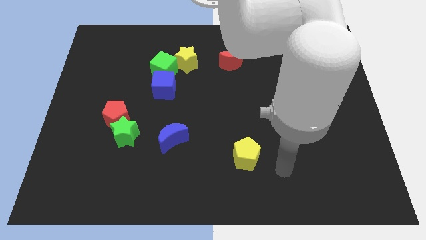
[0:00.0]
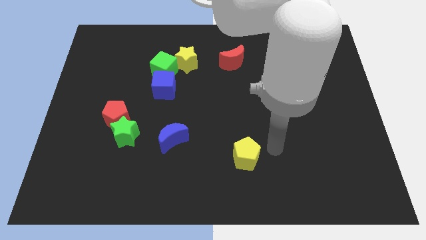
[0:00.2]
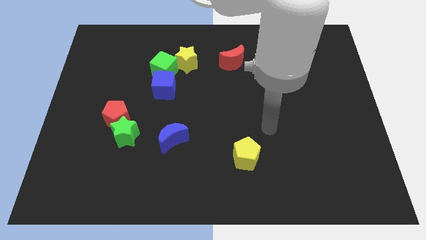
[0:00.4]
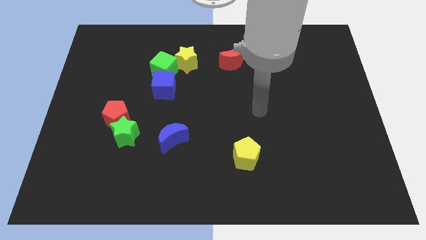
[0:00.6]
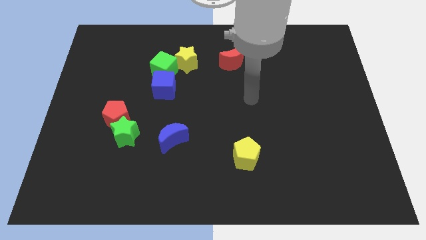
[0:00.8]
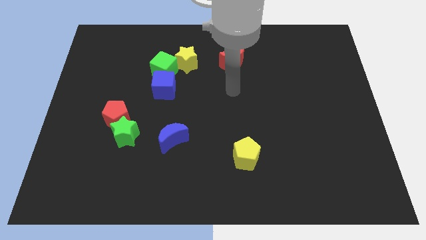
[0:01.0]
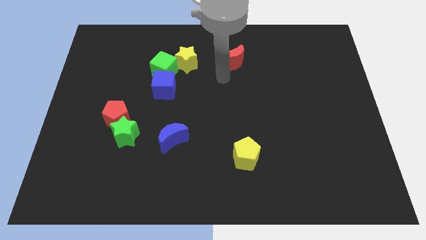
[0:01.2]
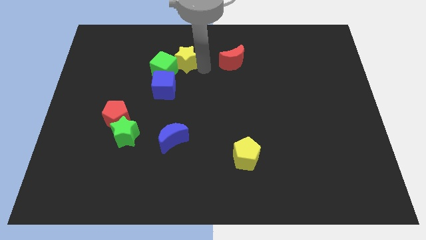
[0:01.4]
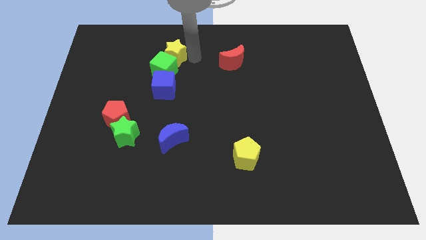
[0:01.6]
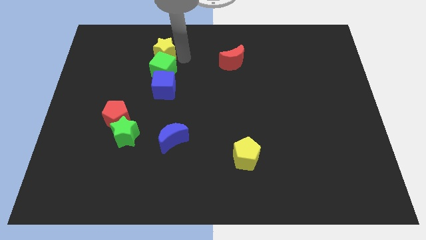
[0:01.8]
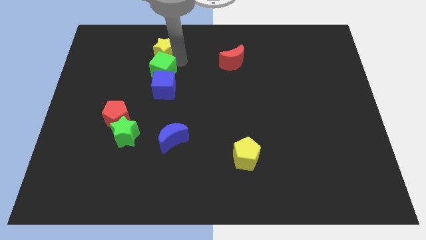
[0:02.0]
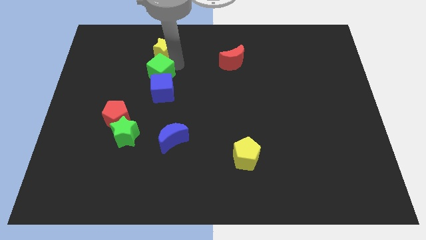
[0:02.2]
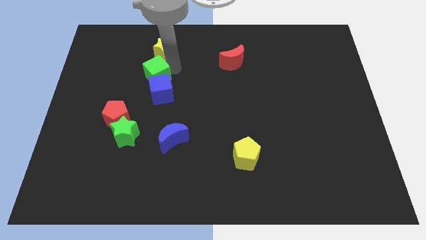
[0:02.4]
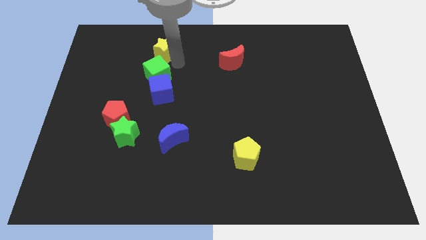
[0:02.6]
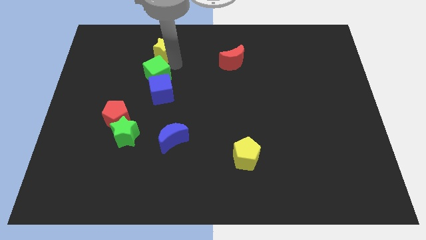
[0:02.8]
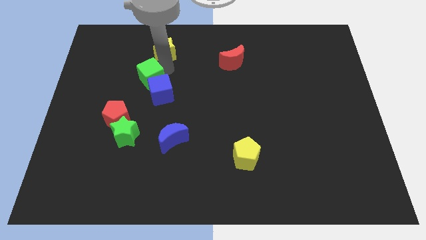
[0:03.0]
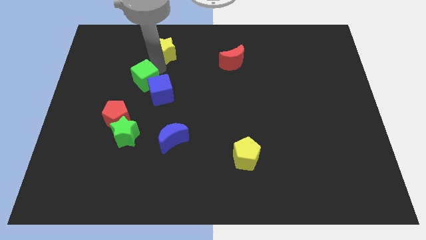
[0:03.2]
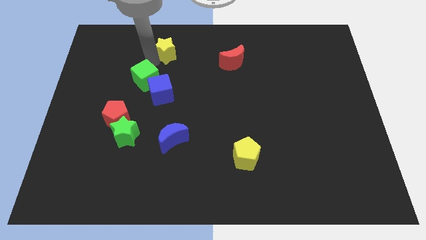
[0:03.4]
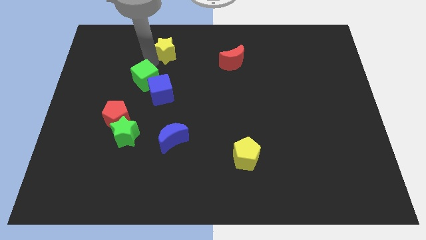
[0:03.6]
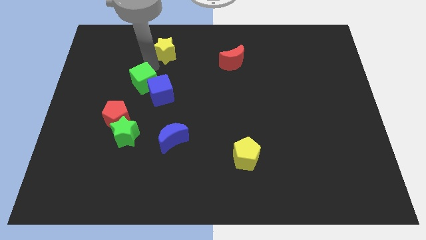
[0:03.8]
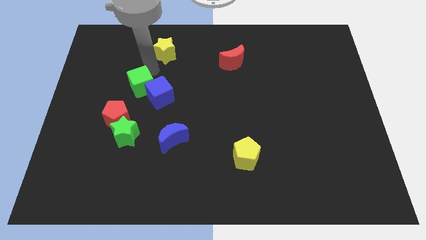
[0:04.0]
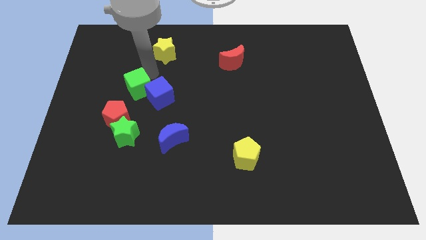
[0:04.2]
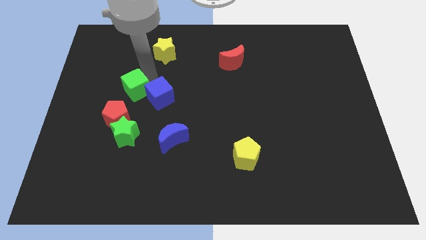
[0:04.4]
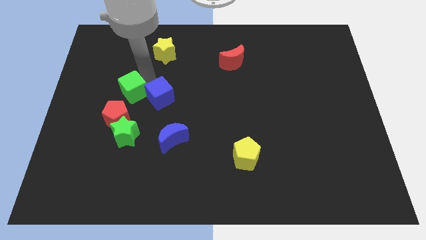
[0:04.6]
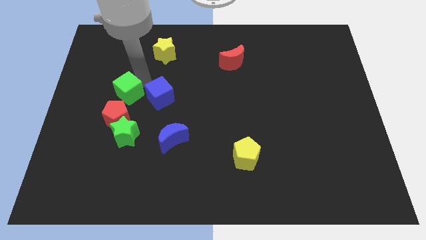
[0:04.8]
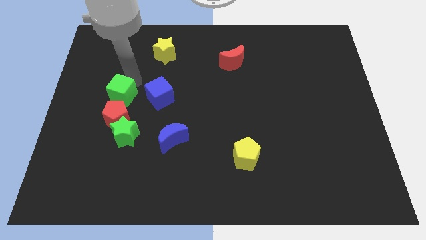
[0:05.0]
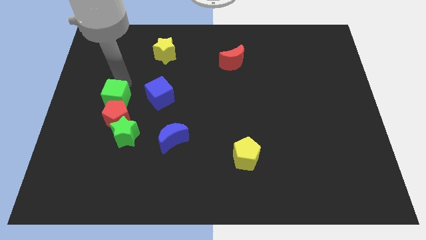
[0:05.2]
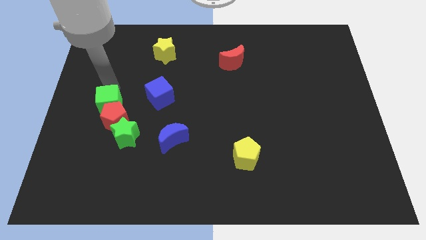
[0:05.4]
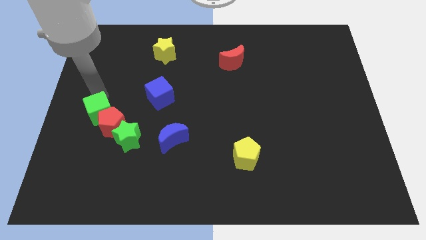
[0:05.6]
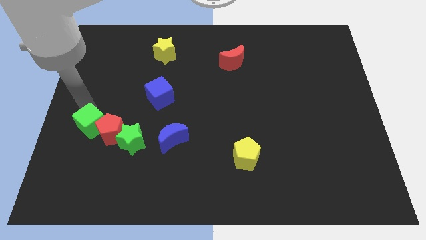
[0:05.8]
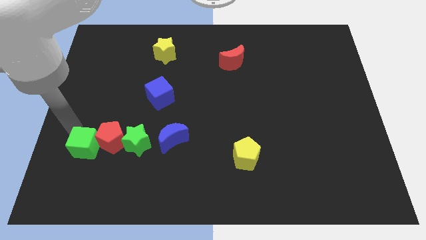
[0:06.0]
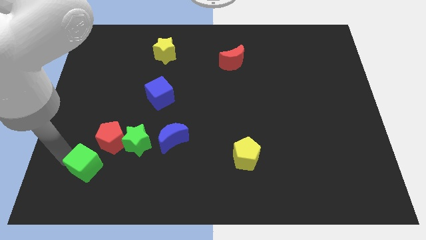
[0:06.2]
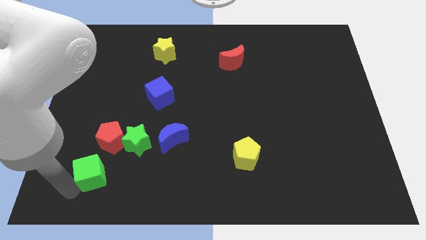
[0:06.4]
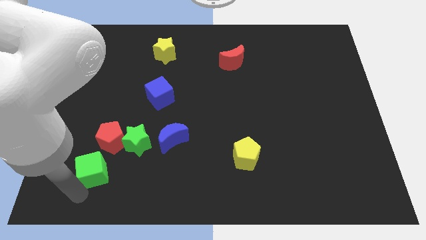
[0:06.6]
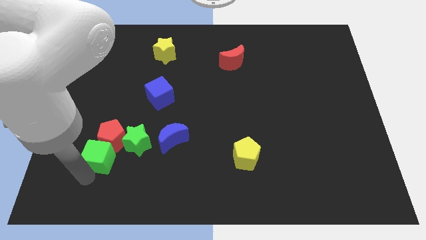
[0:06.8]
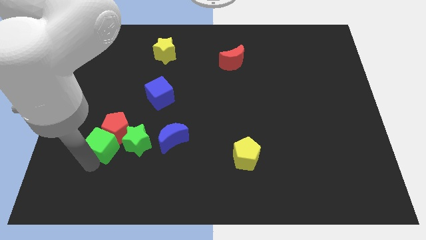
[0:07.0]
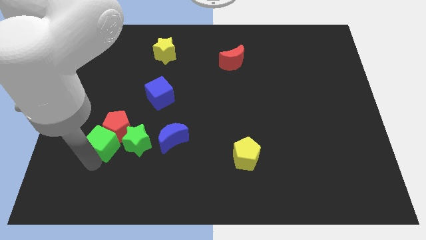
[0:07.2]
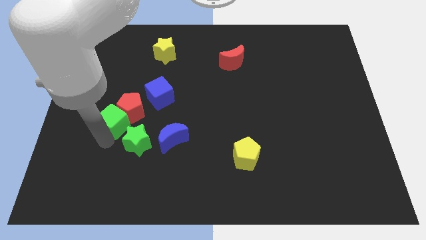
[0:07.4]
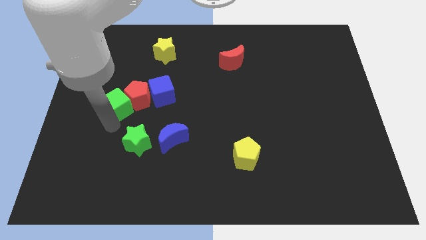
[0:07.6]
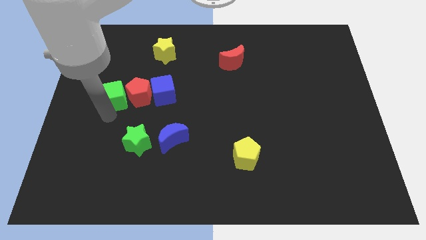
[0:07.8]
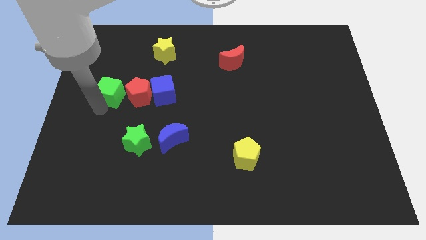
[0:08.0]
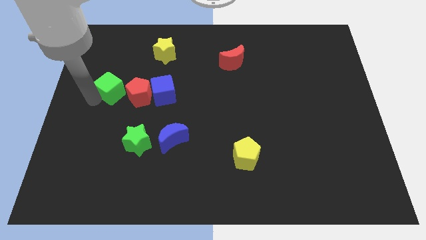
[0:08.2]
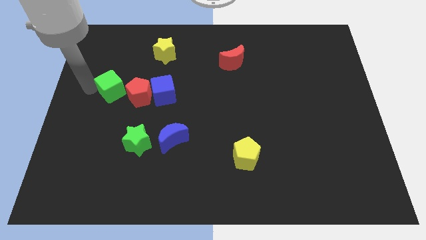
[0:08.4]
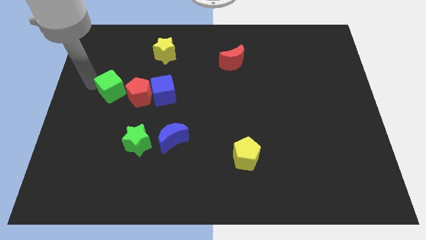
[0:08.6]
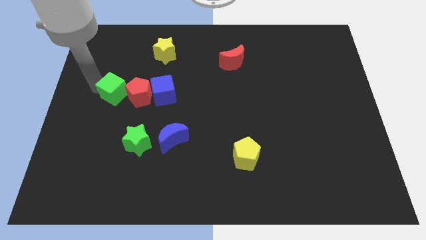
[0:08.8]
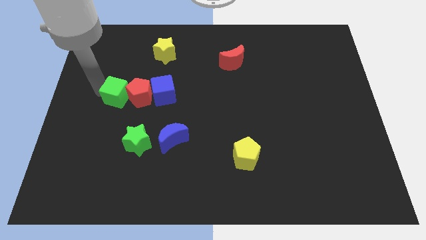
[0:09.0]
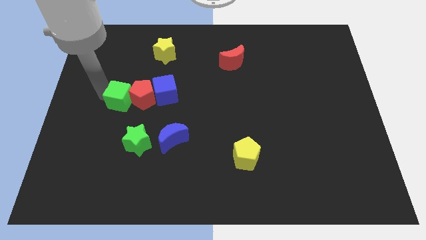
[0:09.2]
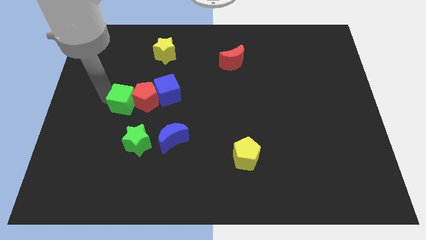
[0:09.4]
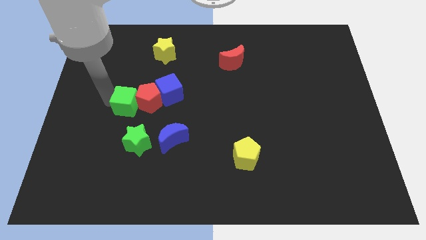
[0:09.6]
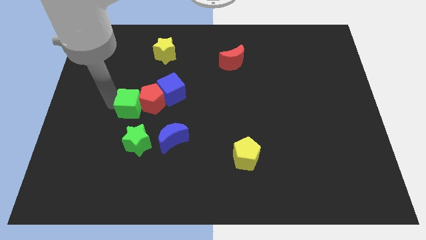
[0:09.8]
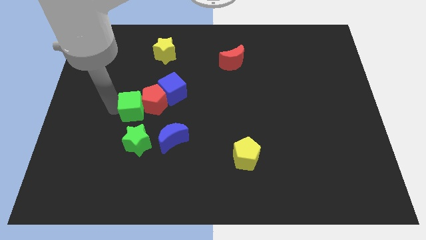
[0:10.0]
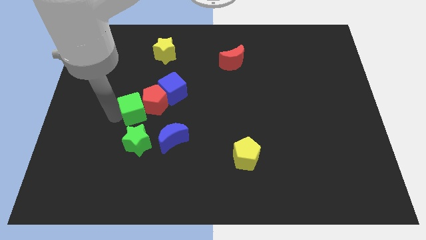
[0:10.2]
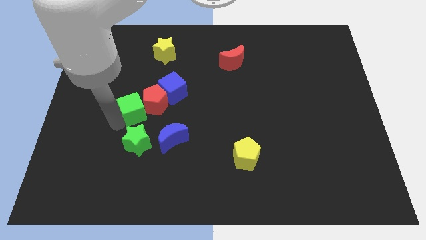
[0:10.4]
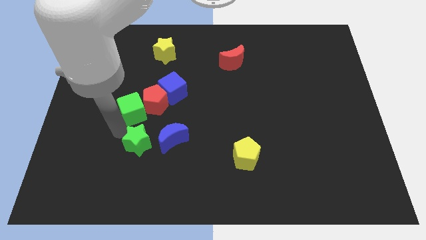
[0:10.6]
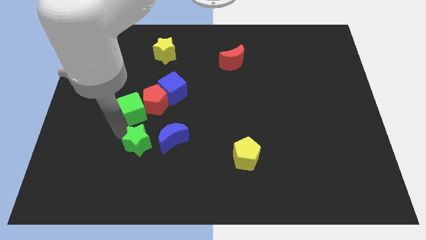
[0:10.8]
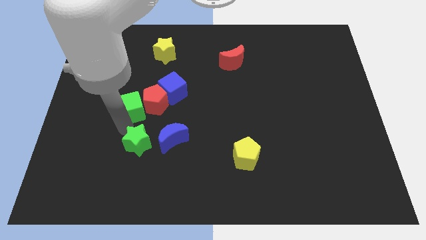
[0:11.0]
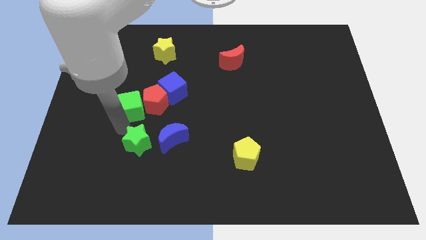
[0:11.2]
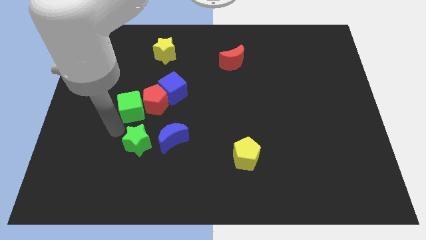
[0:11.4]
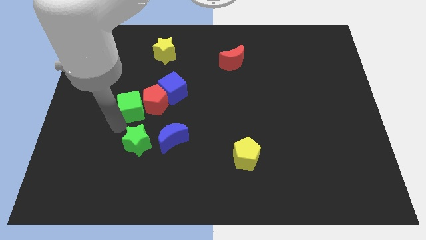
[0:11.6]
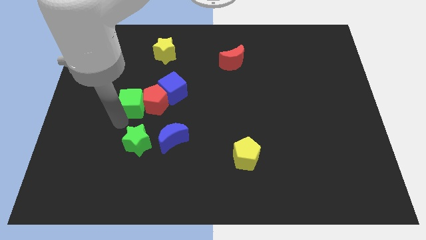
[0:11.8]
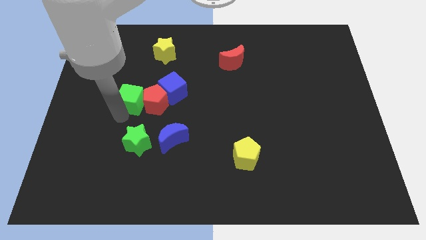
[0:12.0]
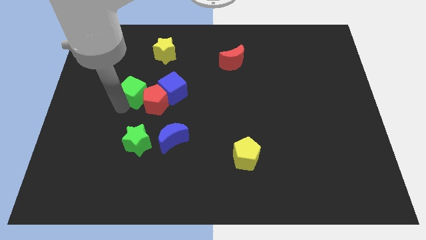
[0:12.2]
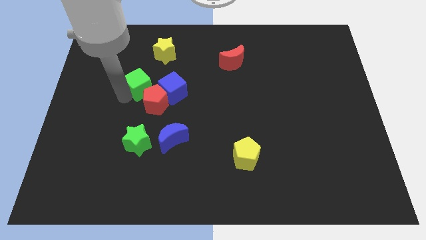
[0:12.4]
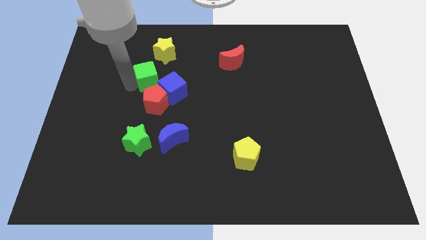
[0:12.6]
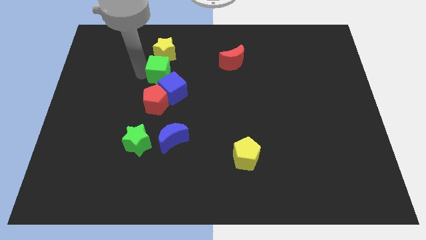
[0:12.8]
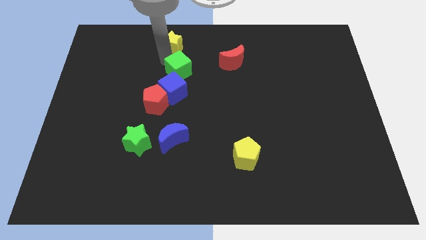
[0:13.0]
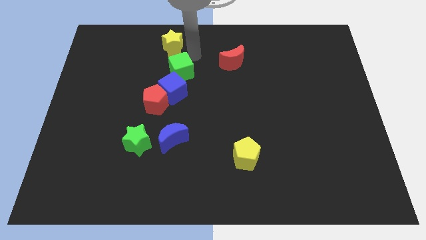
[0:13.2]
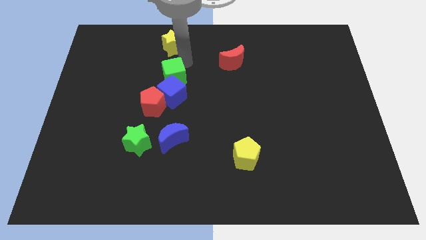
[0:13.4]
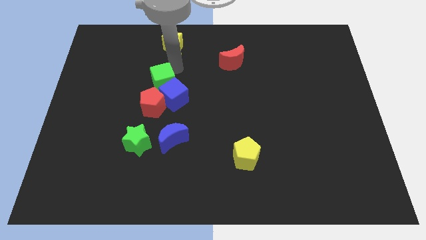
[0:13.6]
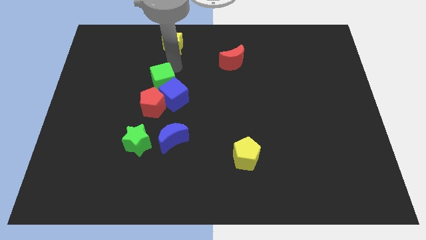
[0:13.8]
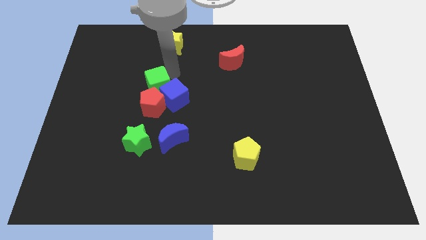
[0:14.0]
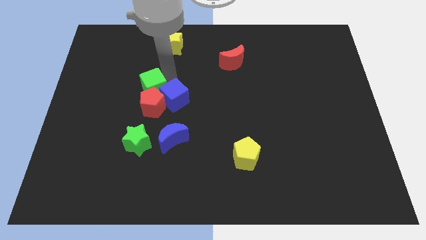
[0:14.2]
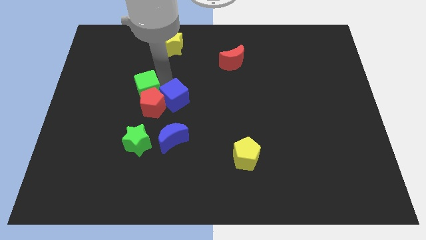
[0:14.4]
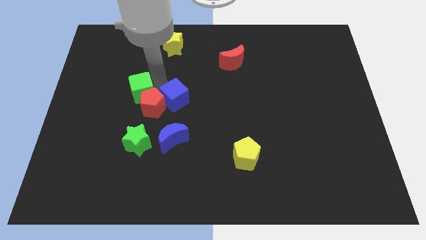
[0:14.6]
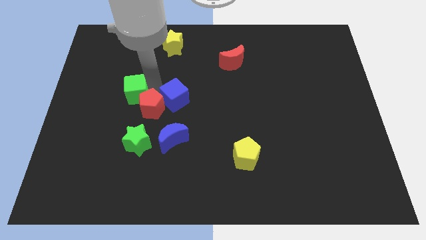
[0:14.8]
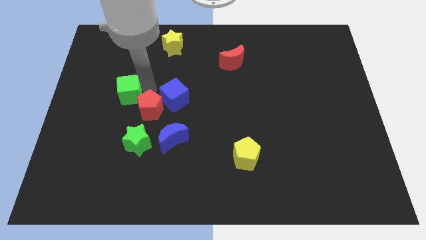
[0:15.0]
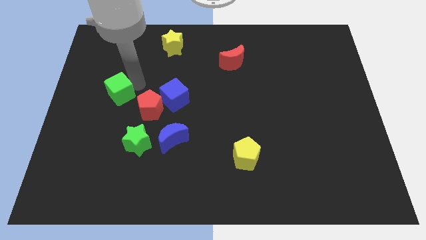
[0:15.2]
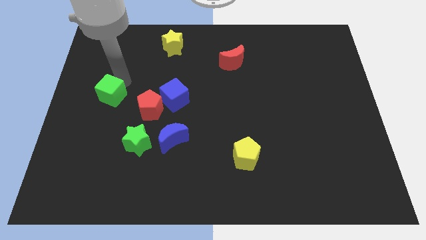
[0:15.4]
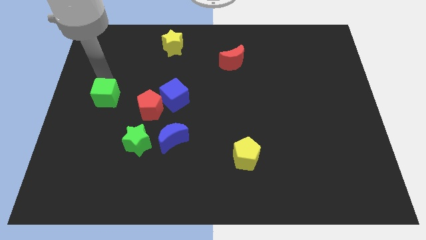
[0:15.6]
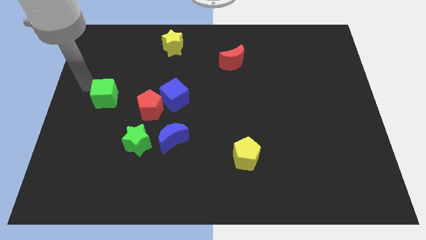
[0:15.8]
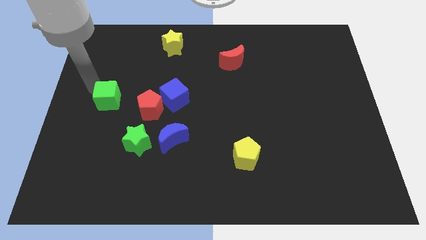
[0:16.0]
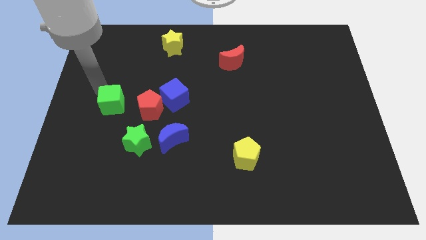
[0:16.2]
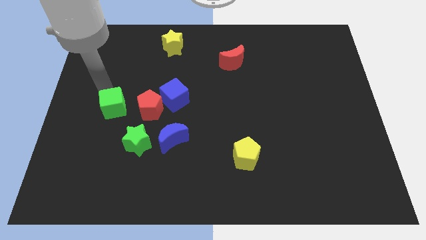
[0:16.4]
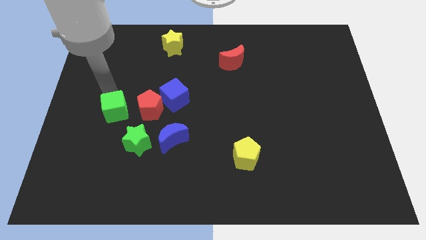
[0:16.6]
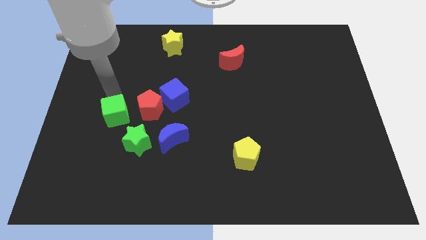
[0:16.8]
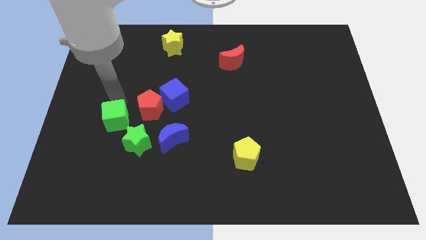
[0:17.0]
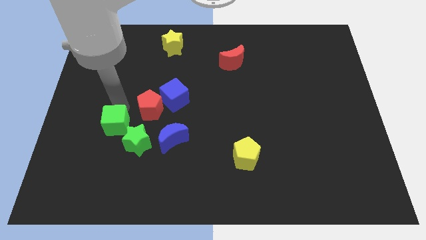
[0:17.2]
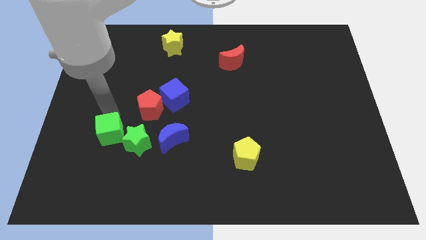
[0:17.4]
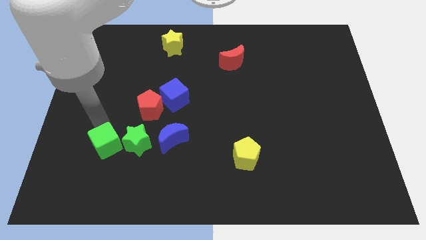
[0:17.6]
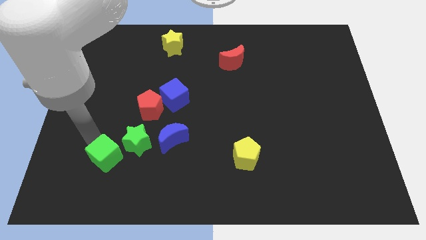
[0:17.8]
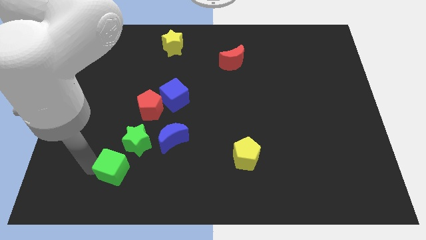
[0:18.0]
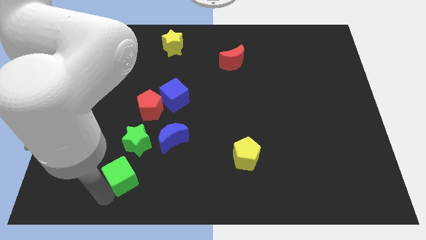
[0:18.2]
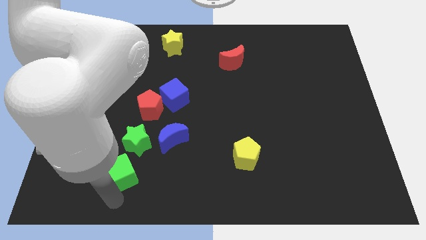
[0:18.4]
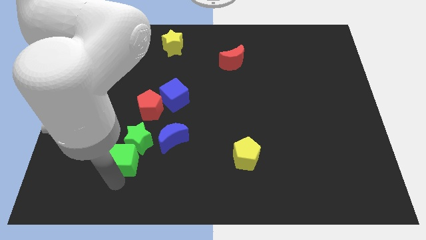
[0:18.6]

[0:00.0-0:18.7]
move the green cube close to the green star
